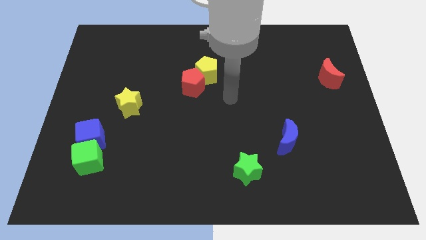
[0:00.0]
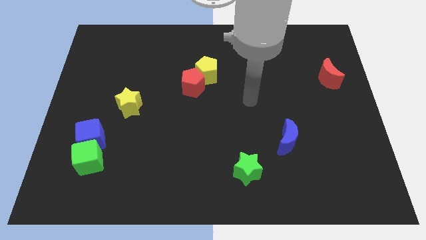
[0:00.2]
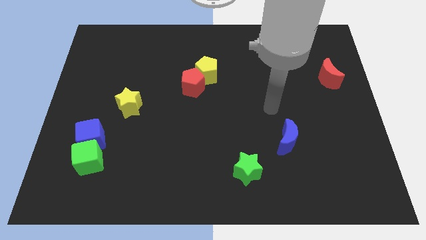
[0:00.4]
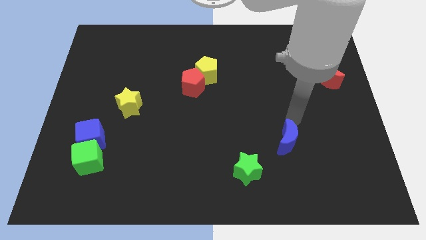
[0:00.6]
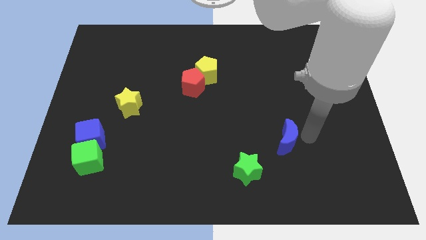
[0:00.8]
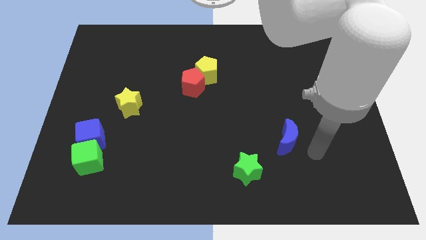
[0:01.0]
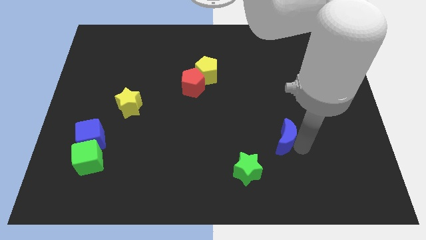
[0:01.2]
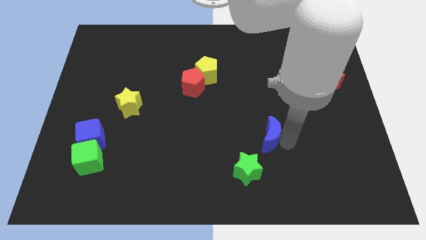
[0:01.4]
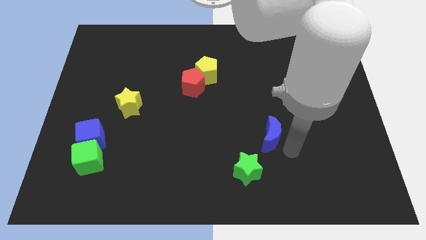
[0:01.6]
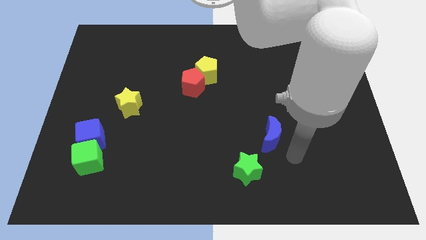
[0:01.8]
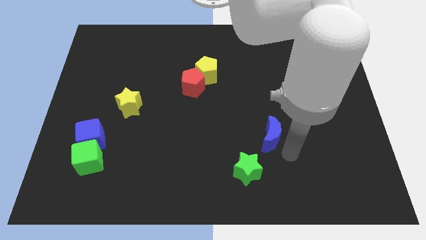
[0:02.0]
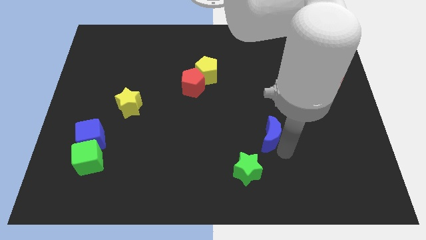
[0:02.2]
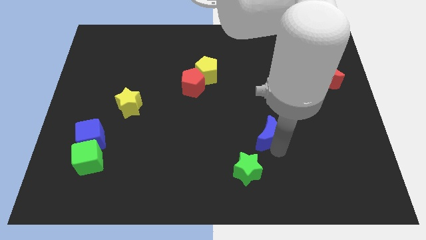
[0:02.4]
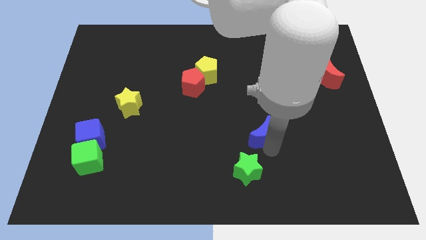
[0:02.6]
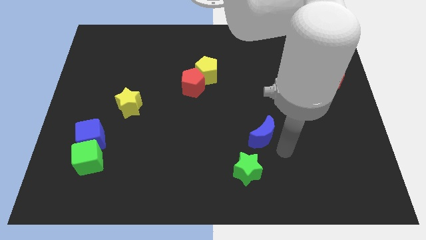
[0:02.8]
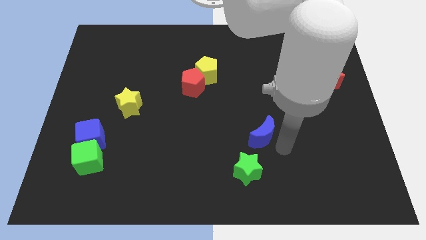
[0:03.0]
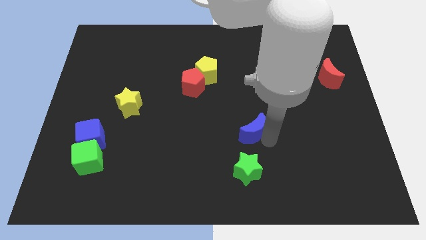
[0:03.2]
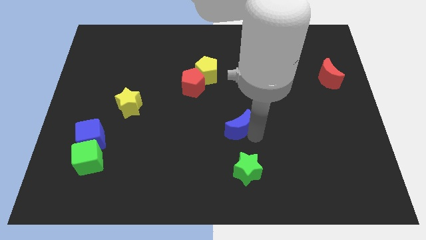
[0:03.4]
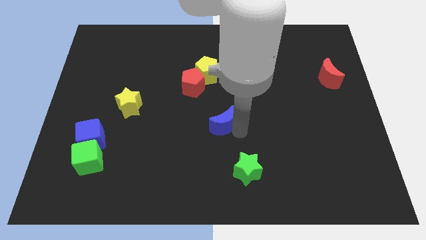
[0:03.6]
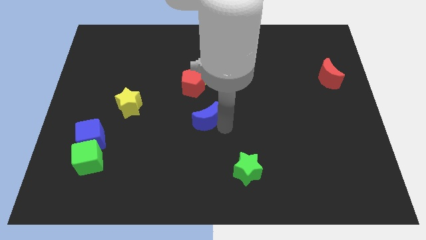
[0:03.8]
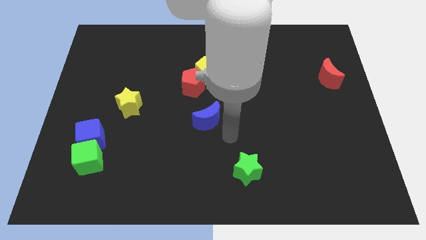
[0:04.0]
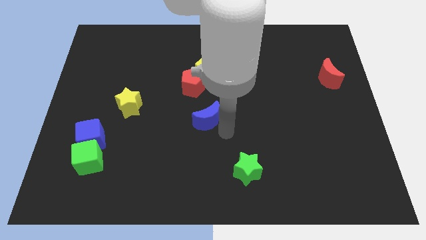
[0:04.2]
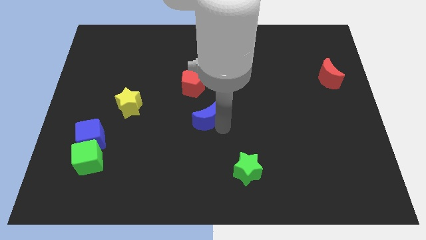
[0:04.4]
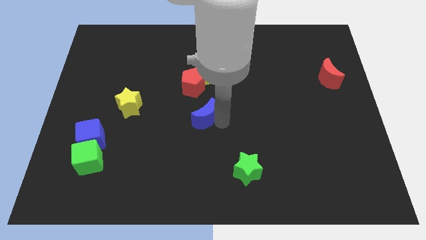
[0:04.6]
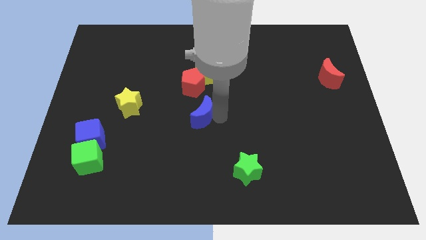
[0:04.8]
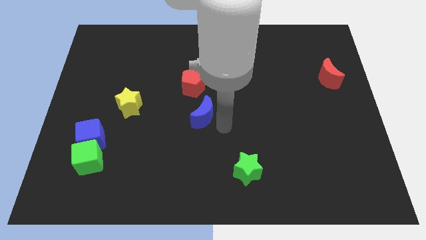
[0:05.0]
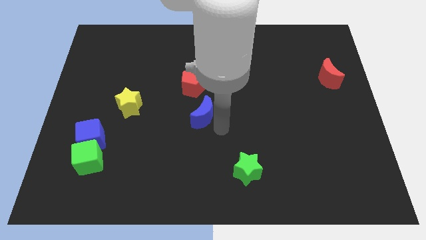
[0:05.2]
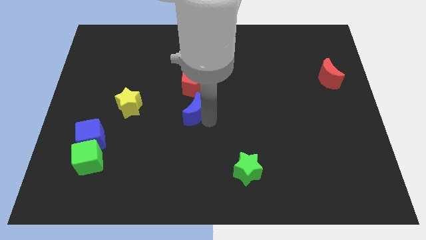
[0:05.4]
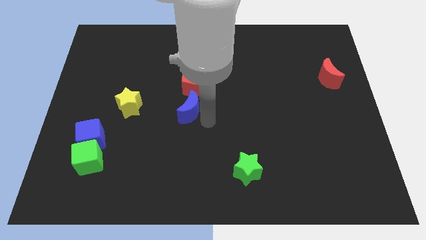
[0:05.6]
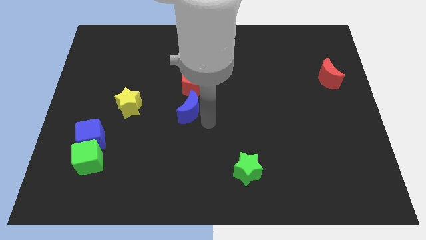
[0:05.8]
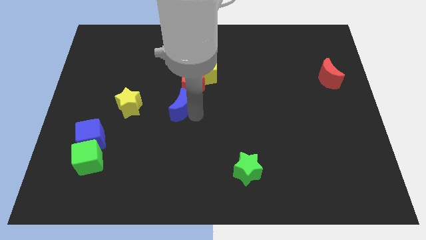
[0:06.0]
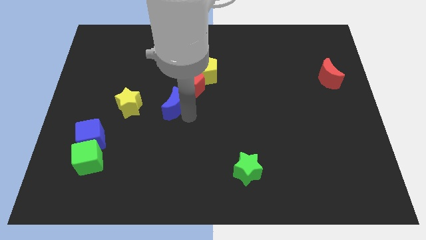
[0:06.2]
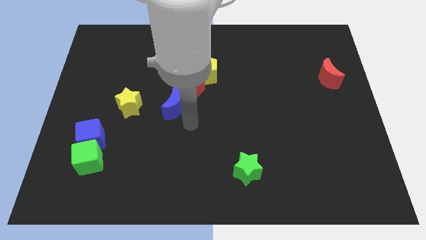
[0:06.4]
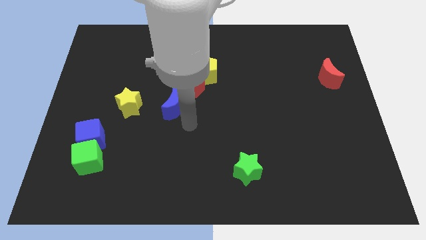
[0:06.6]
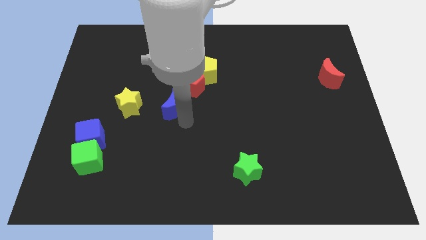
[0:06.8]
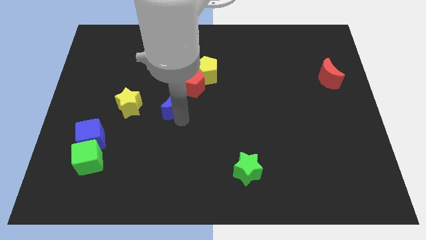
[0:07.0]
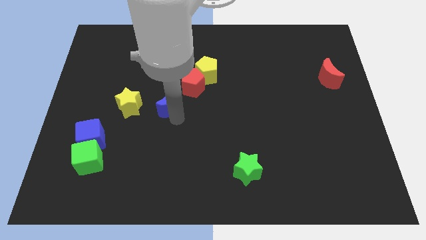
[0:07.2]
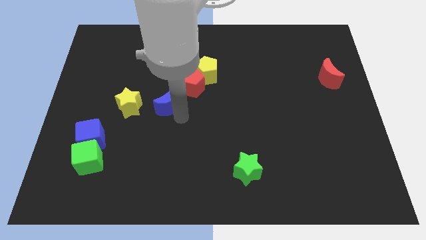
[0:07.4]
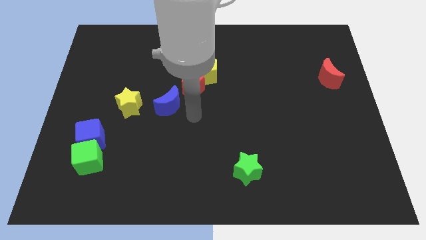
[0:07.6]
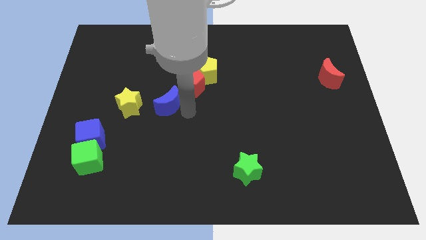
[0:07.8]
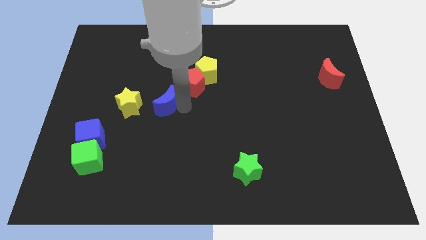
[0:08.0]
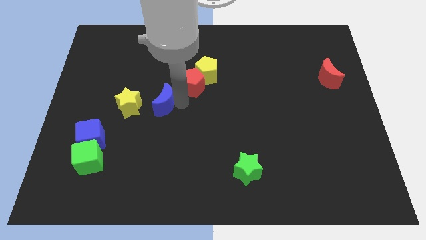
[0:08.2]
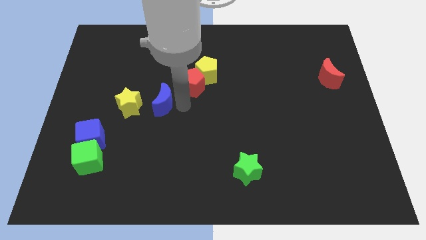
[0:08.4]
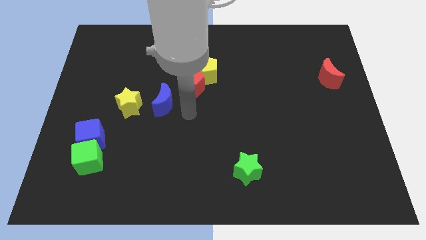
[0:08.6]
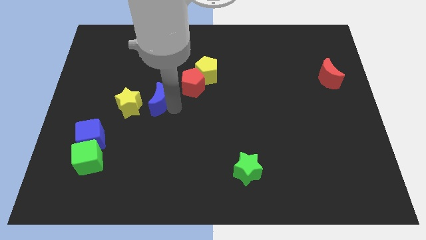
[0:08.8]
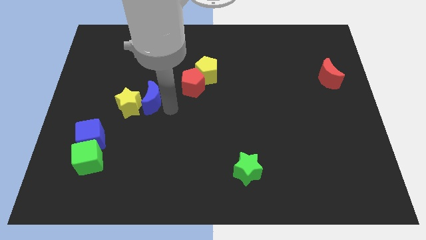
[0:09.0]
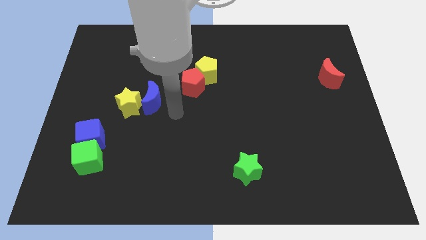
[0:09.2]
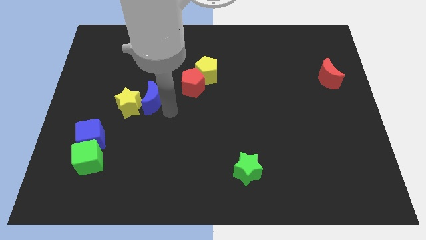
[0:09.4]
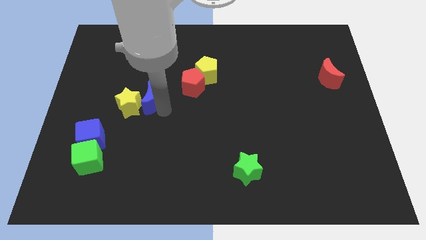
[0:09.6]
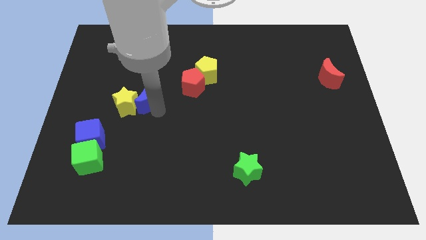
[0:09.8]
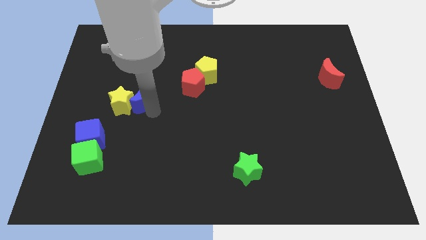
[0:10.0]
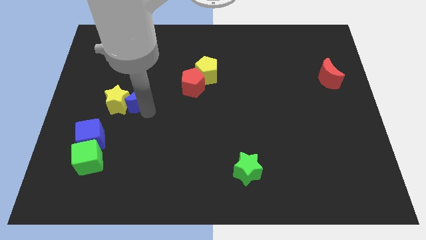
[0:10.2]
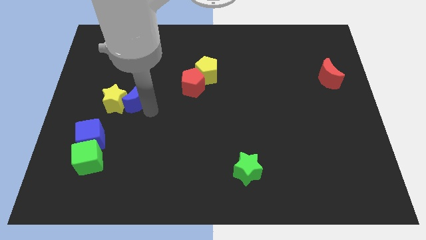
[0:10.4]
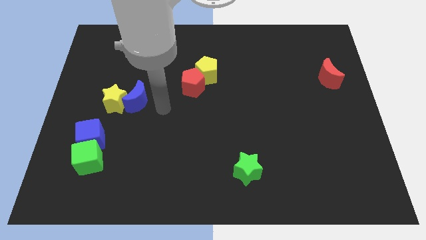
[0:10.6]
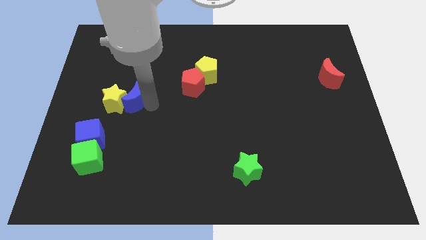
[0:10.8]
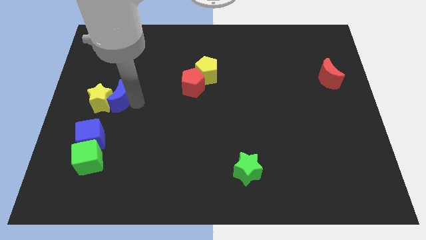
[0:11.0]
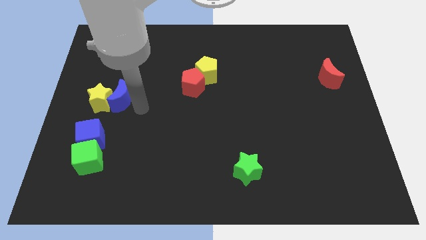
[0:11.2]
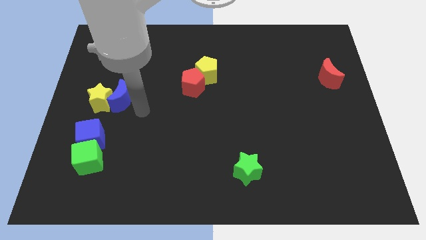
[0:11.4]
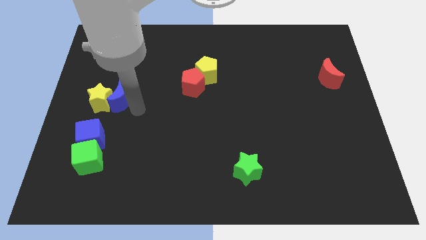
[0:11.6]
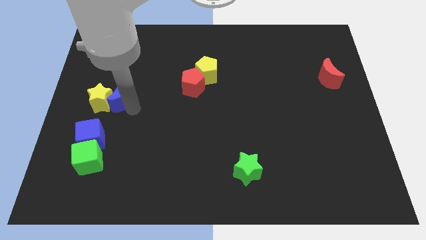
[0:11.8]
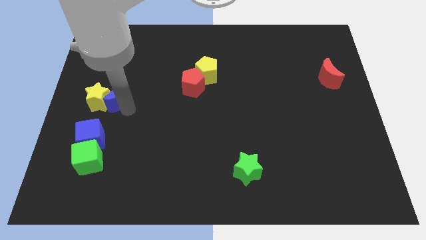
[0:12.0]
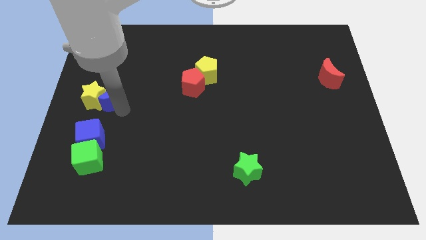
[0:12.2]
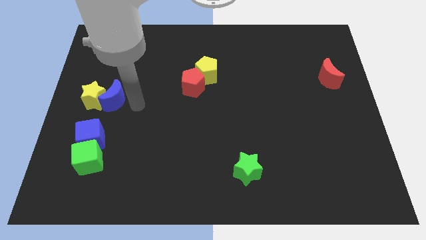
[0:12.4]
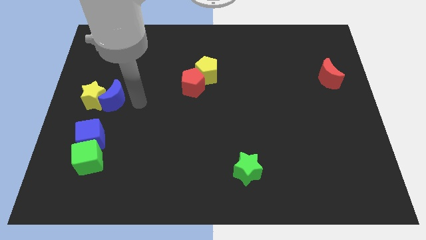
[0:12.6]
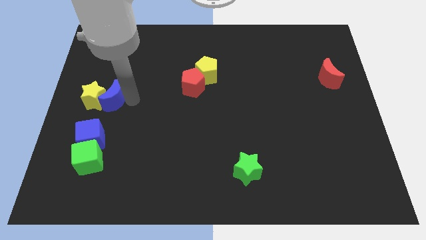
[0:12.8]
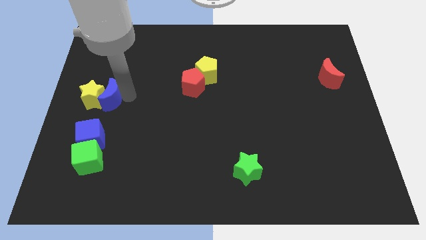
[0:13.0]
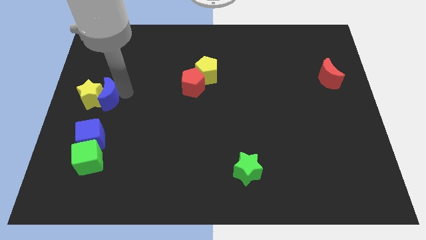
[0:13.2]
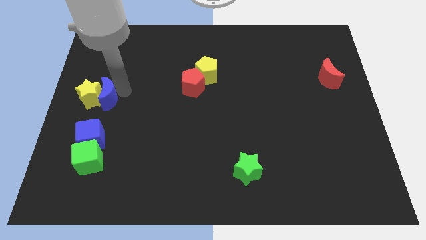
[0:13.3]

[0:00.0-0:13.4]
put the blue moon to the center left
